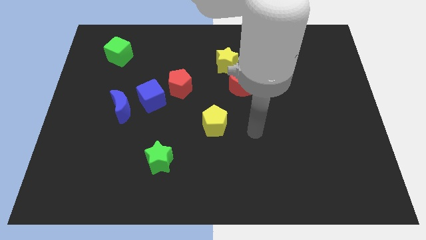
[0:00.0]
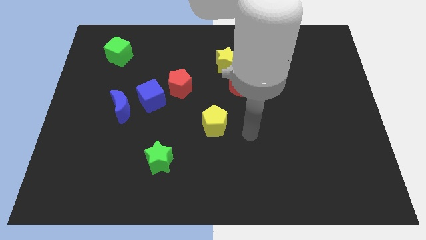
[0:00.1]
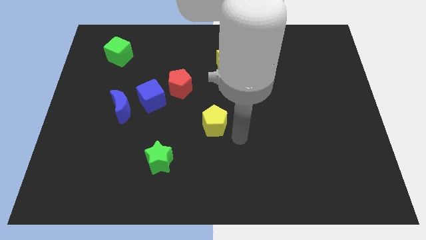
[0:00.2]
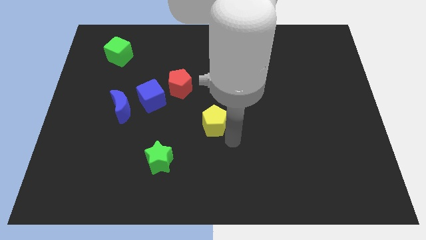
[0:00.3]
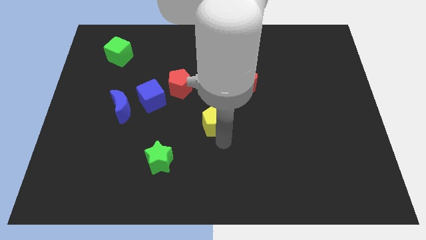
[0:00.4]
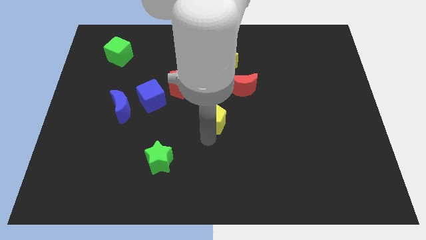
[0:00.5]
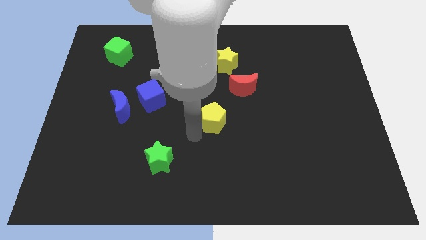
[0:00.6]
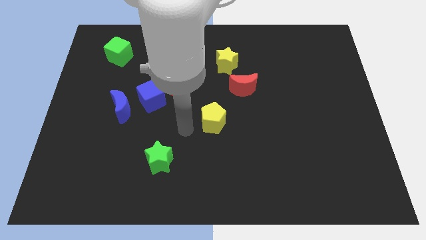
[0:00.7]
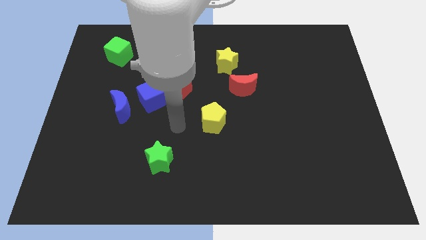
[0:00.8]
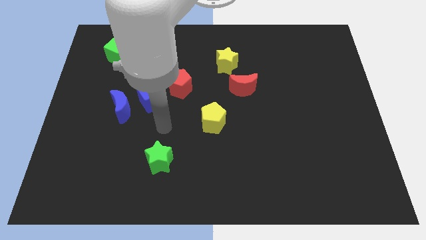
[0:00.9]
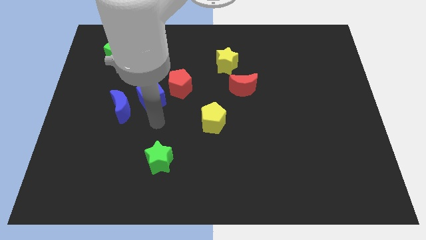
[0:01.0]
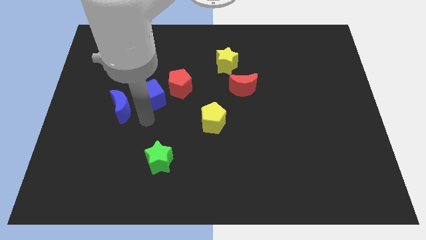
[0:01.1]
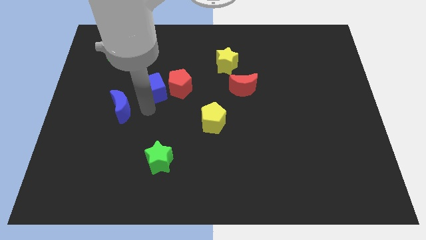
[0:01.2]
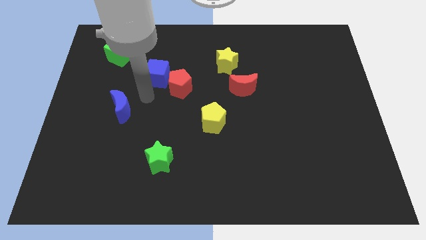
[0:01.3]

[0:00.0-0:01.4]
separate the blue moon from the blue cube

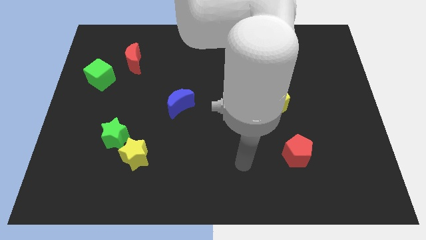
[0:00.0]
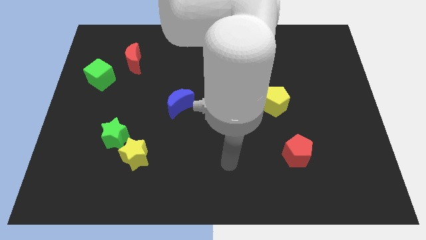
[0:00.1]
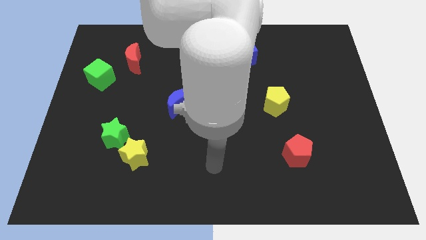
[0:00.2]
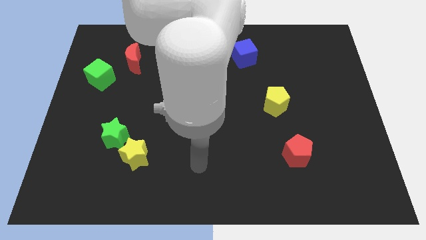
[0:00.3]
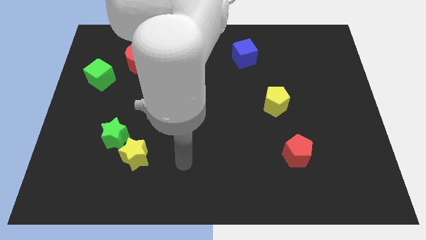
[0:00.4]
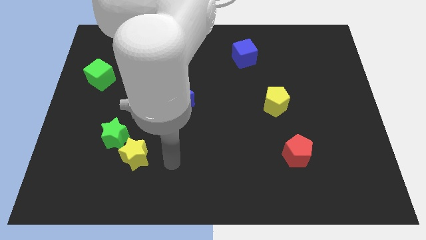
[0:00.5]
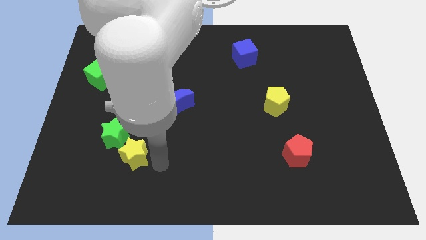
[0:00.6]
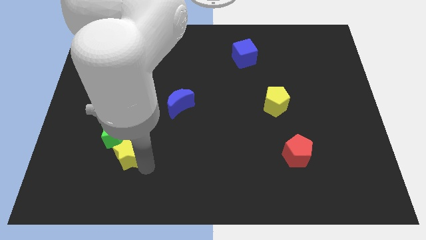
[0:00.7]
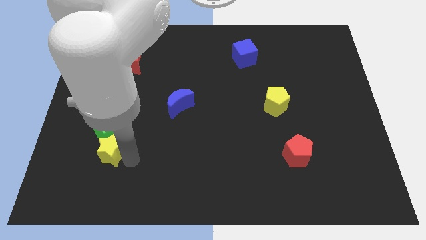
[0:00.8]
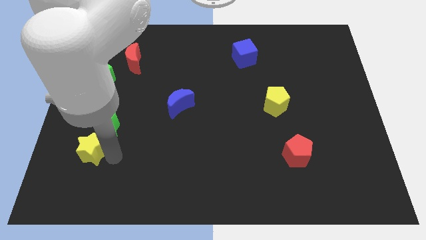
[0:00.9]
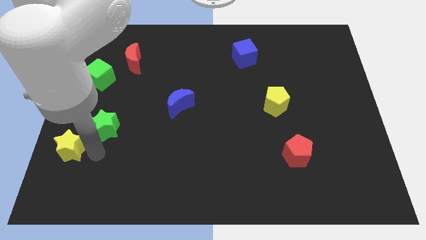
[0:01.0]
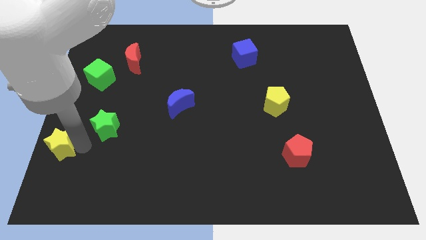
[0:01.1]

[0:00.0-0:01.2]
move the green star away from the yellow star

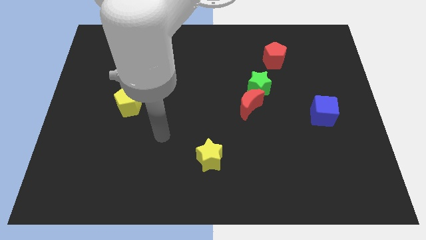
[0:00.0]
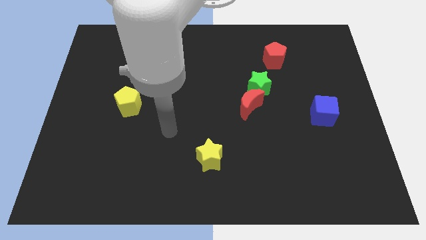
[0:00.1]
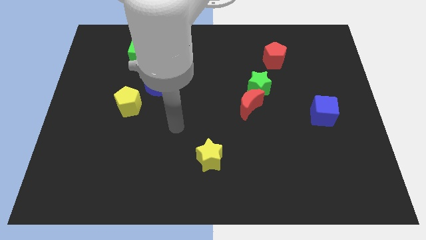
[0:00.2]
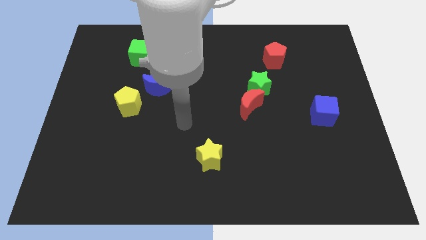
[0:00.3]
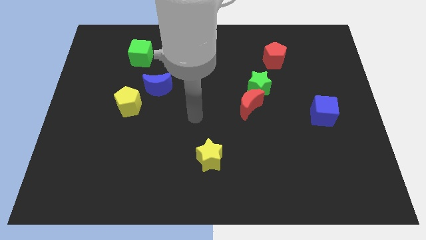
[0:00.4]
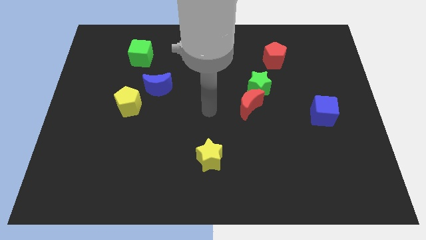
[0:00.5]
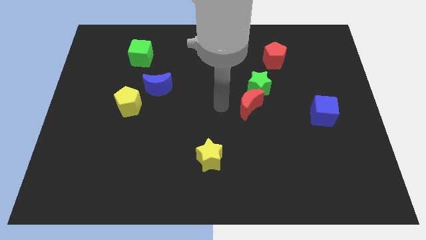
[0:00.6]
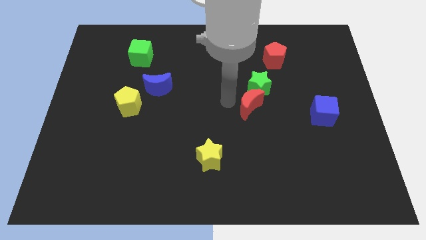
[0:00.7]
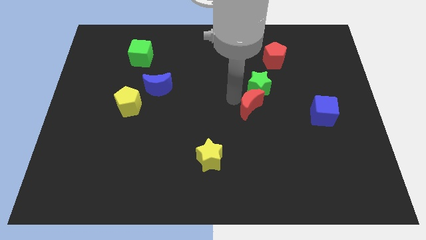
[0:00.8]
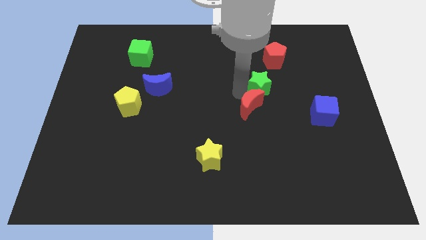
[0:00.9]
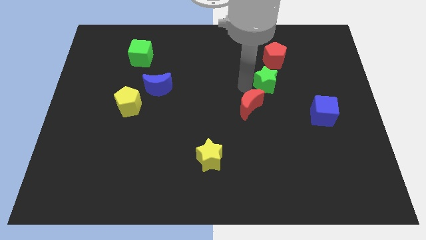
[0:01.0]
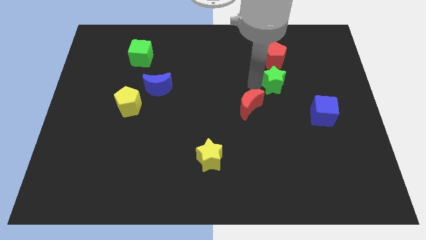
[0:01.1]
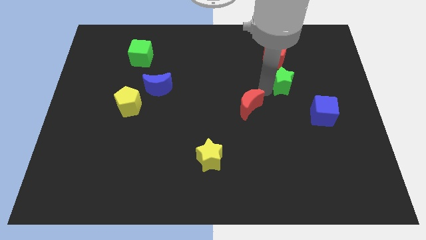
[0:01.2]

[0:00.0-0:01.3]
move the red moon away from the green star

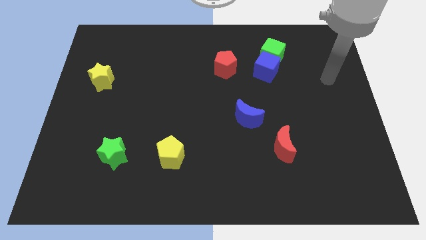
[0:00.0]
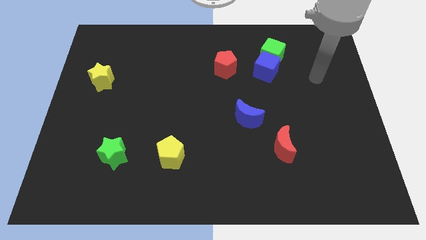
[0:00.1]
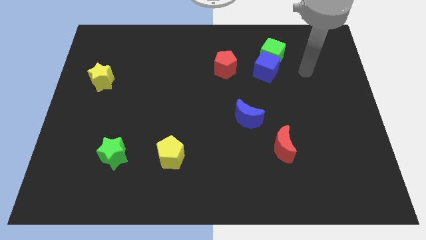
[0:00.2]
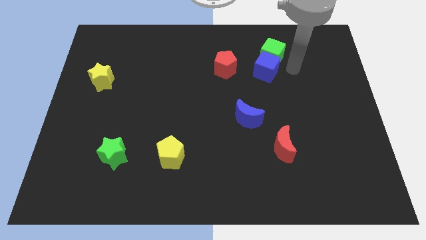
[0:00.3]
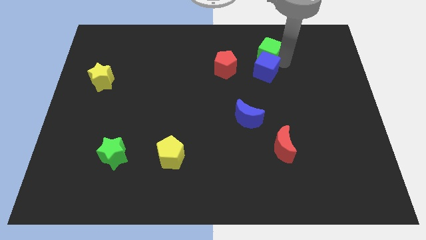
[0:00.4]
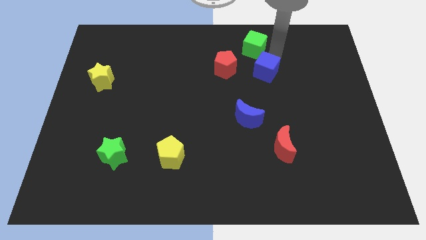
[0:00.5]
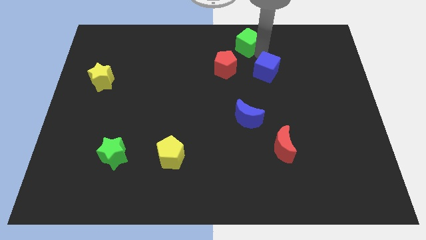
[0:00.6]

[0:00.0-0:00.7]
pull the blue cube apart from the green cube

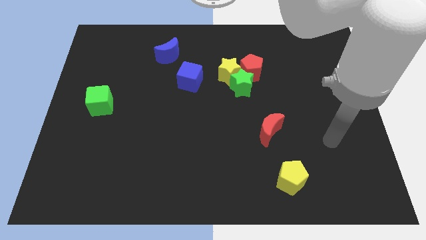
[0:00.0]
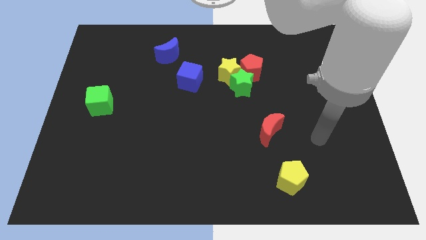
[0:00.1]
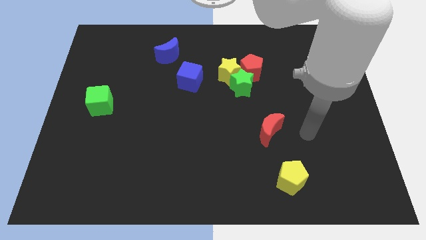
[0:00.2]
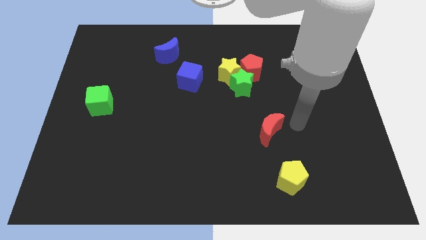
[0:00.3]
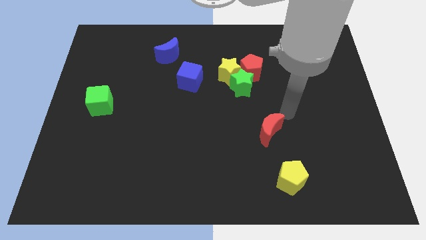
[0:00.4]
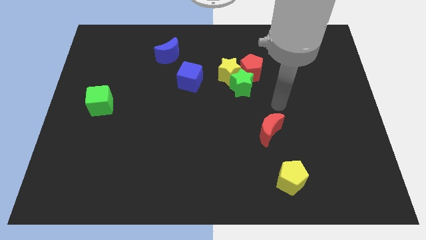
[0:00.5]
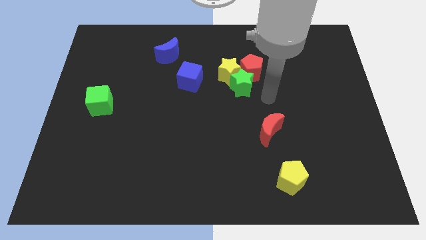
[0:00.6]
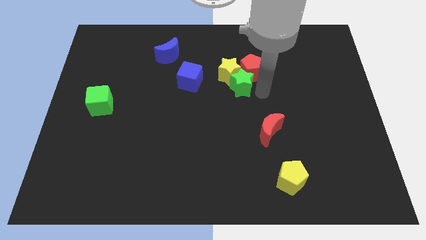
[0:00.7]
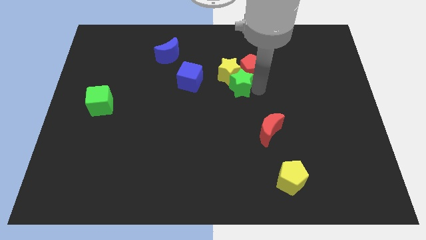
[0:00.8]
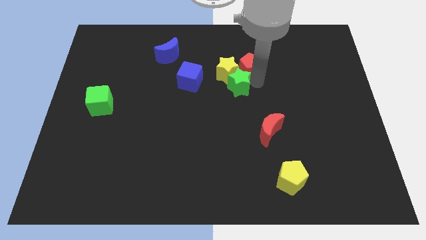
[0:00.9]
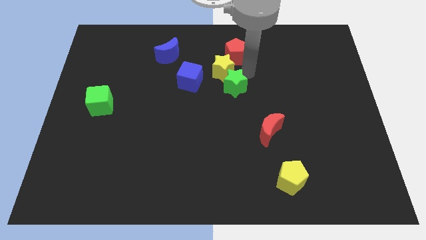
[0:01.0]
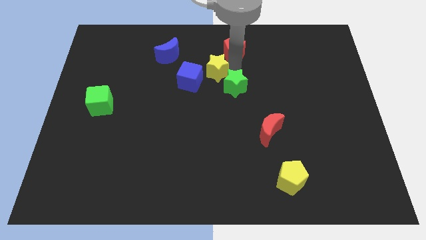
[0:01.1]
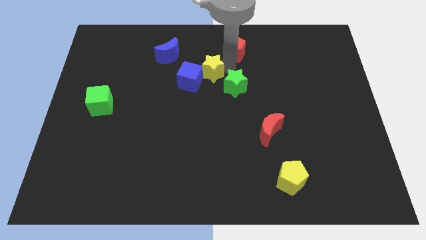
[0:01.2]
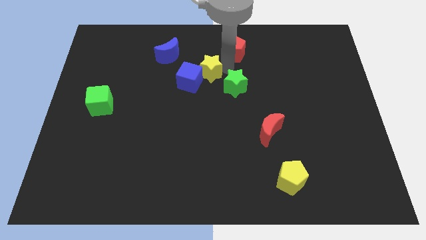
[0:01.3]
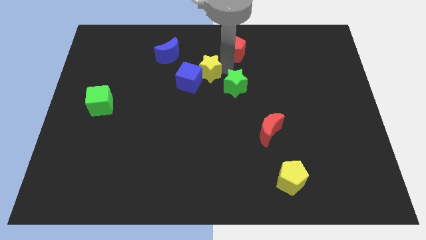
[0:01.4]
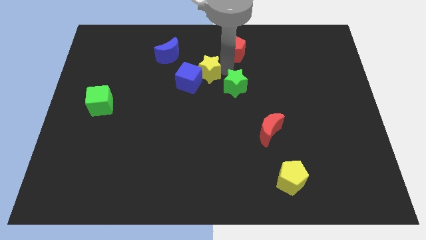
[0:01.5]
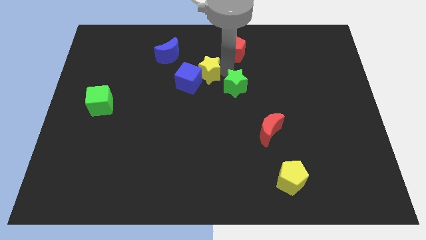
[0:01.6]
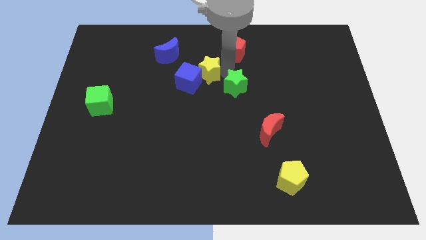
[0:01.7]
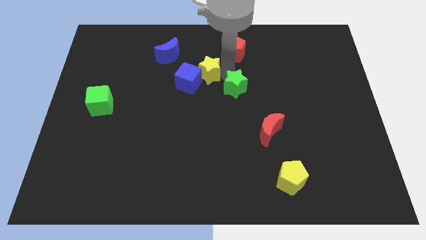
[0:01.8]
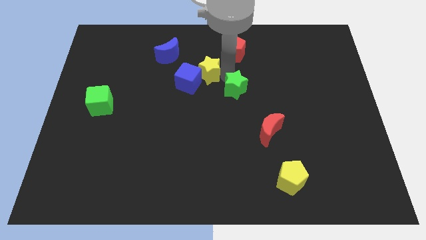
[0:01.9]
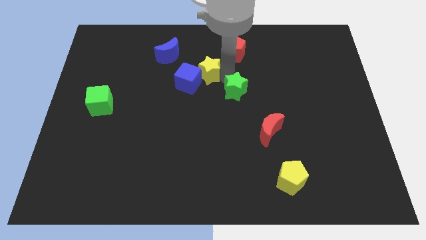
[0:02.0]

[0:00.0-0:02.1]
pull the green star apart from the yellow star and red pentagon

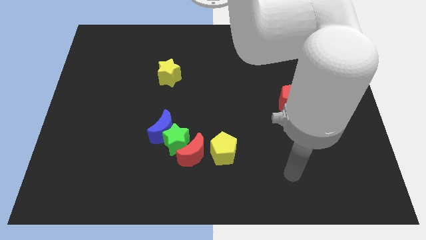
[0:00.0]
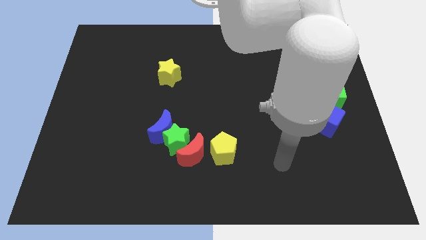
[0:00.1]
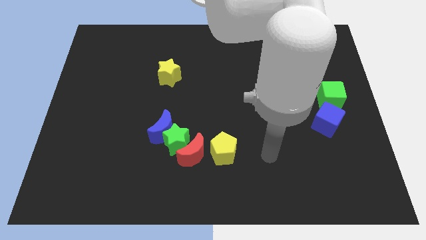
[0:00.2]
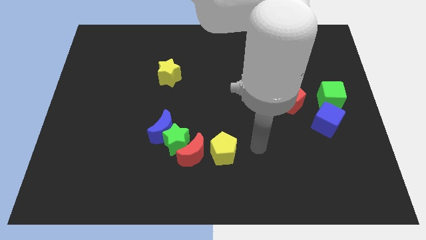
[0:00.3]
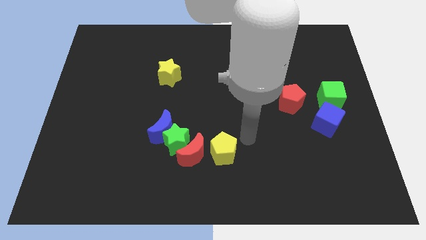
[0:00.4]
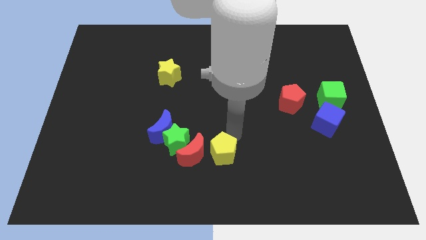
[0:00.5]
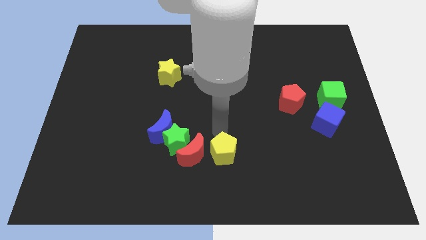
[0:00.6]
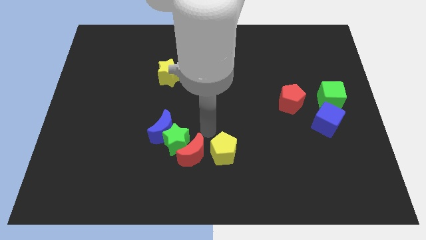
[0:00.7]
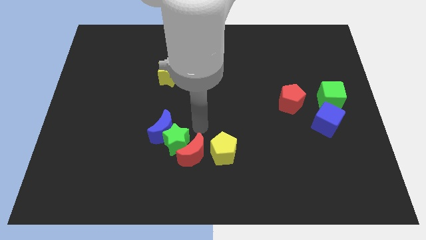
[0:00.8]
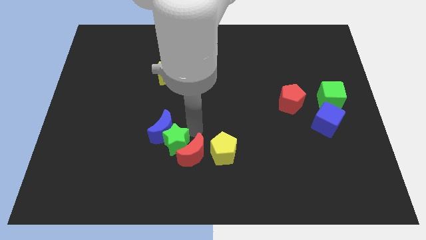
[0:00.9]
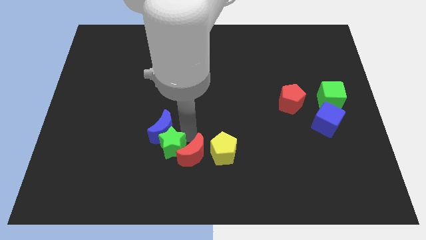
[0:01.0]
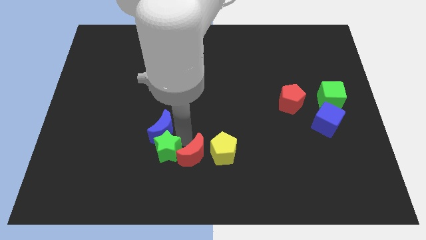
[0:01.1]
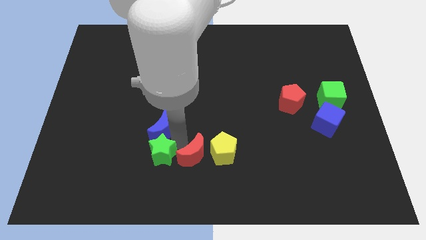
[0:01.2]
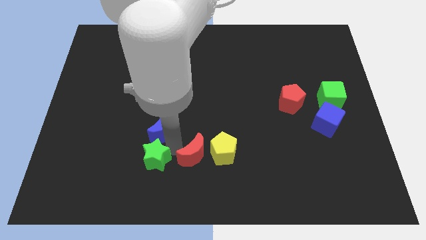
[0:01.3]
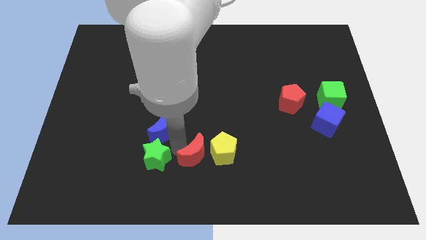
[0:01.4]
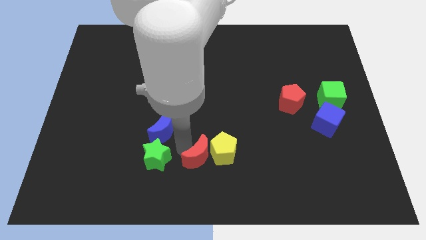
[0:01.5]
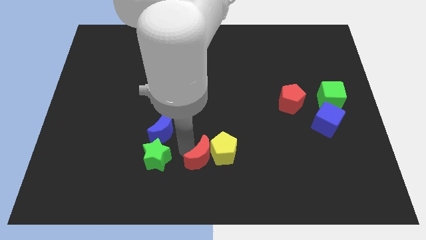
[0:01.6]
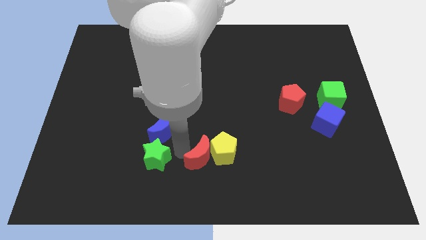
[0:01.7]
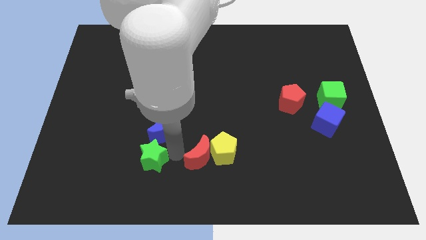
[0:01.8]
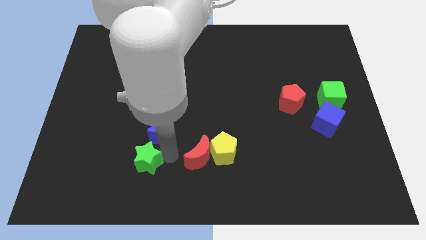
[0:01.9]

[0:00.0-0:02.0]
separate the green star from the clump

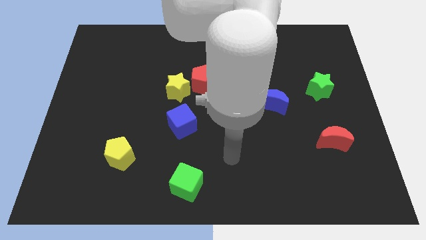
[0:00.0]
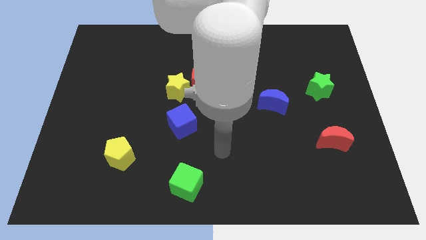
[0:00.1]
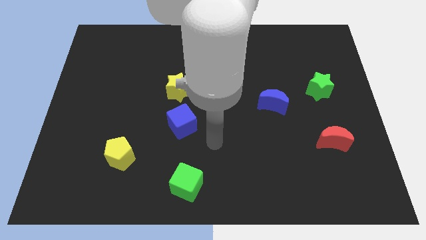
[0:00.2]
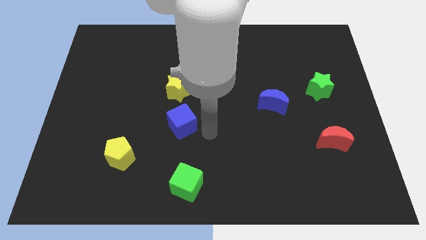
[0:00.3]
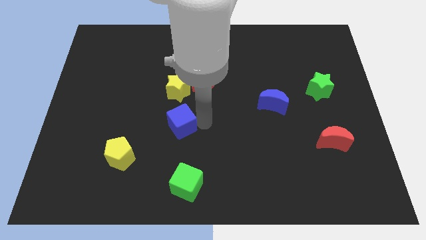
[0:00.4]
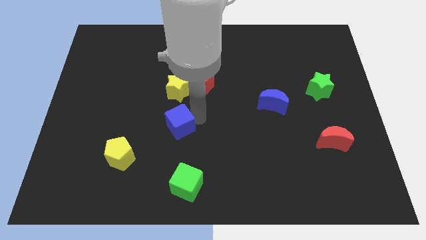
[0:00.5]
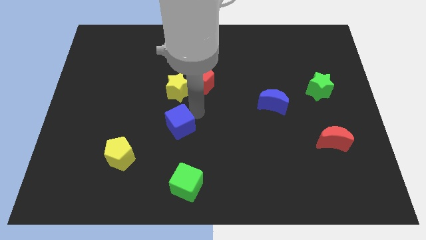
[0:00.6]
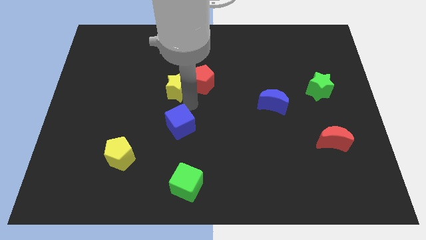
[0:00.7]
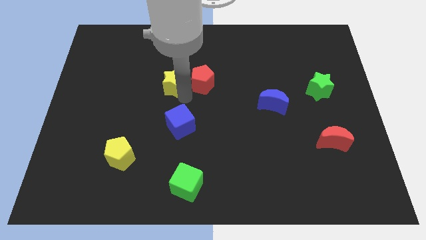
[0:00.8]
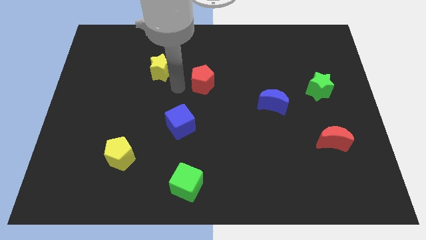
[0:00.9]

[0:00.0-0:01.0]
separate the red pentagon from the yellow star
